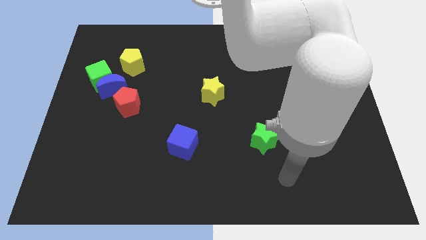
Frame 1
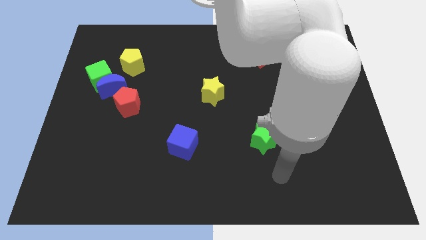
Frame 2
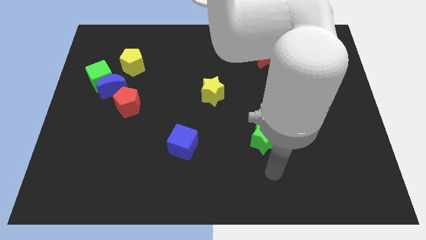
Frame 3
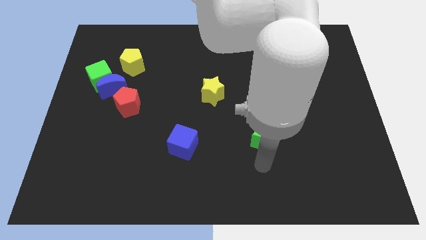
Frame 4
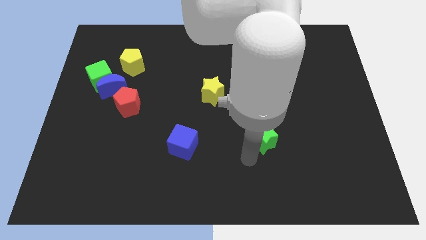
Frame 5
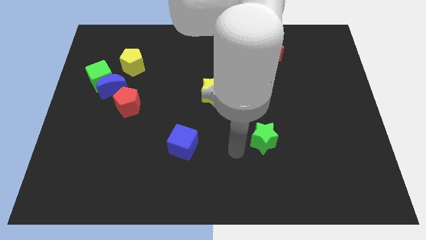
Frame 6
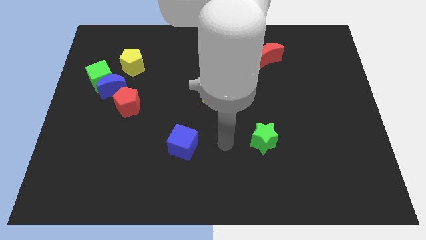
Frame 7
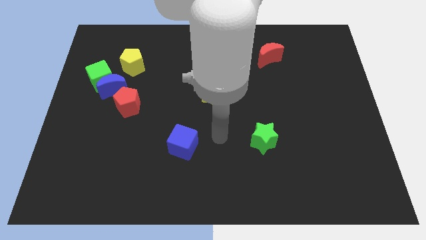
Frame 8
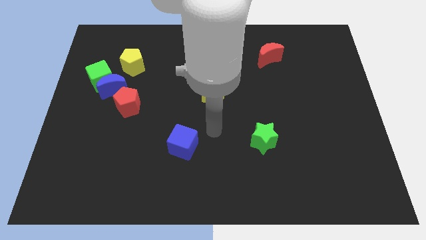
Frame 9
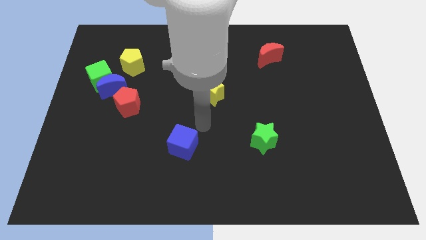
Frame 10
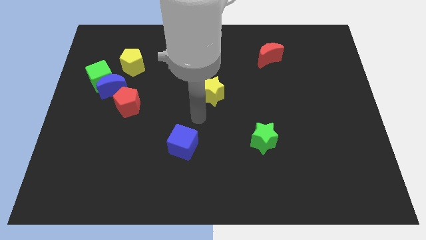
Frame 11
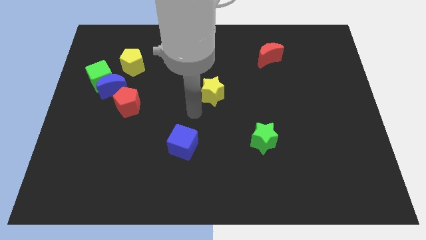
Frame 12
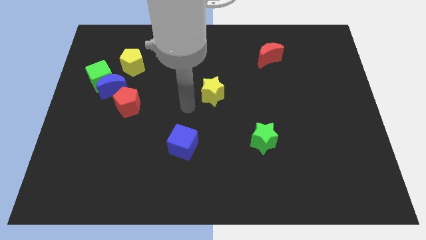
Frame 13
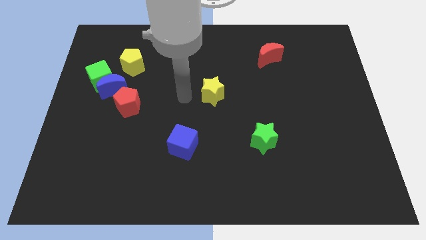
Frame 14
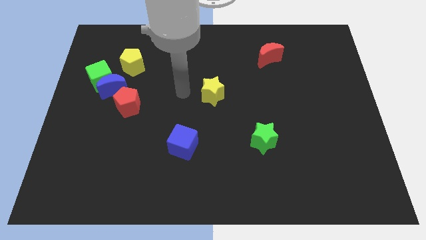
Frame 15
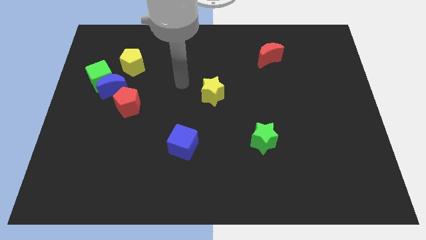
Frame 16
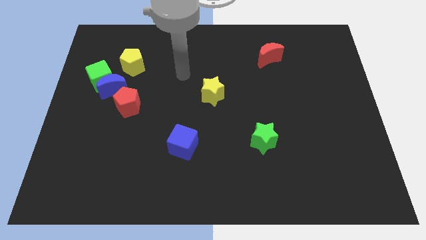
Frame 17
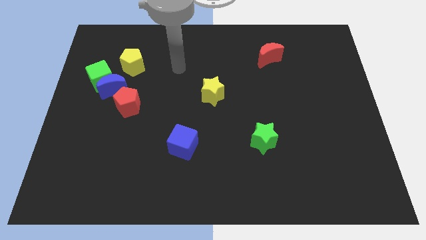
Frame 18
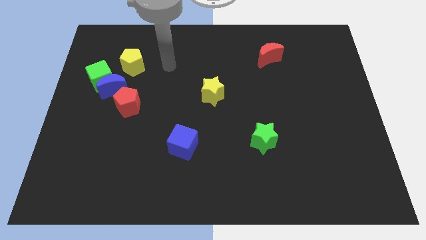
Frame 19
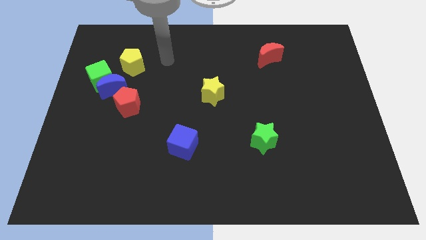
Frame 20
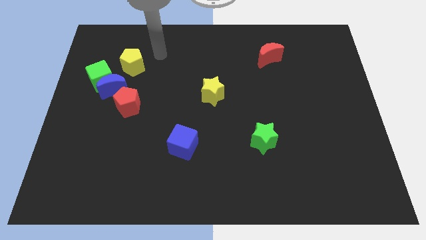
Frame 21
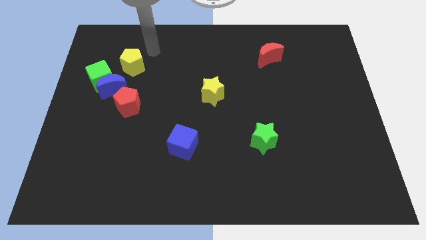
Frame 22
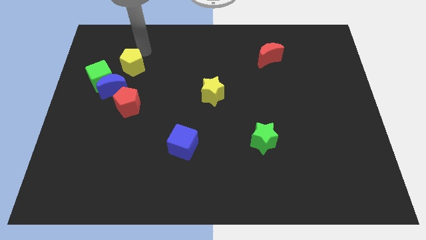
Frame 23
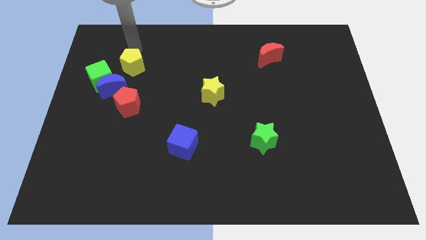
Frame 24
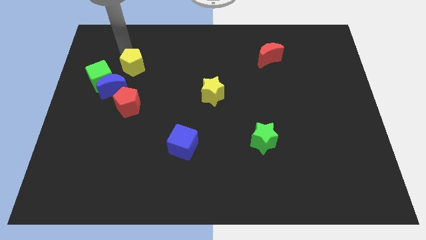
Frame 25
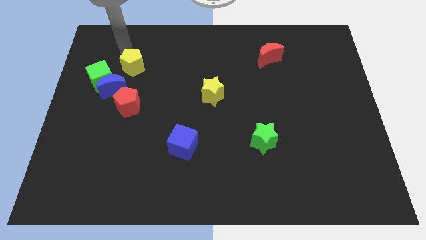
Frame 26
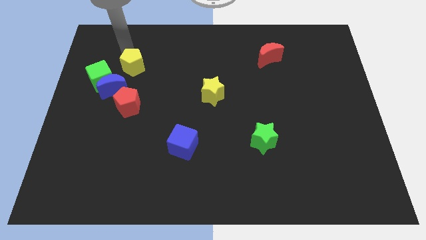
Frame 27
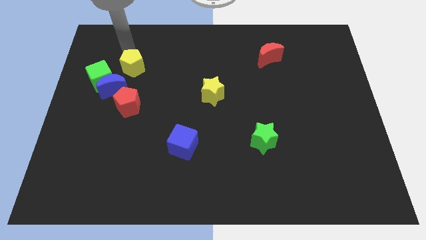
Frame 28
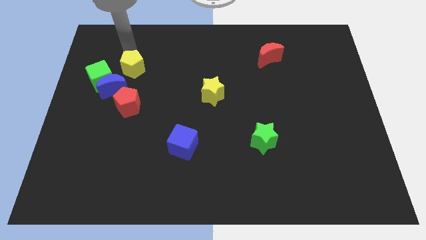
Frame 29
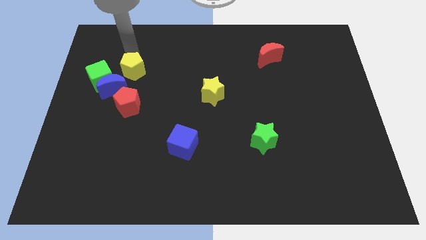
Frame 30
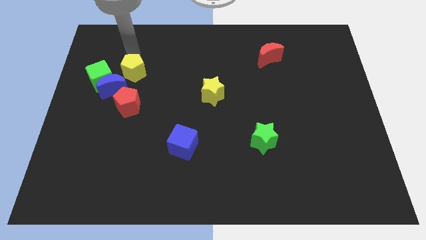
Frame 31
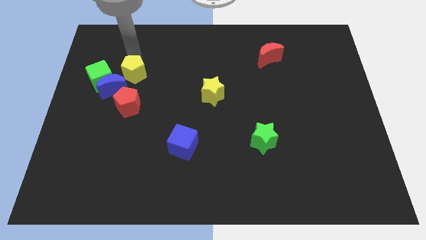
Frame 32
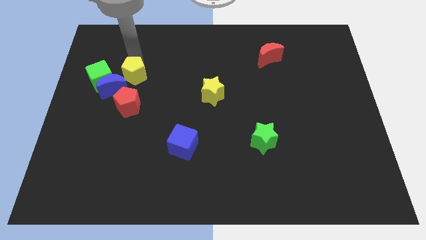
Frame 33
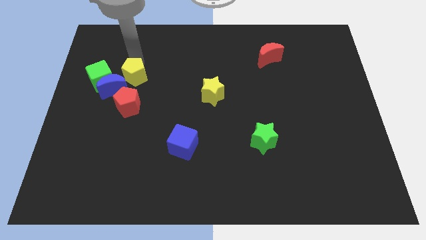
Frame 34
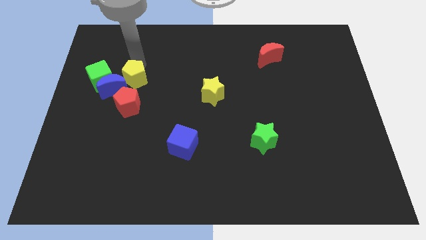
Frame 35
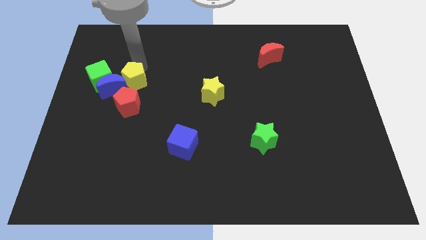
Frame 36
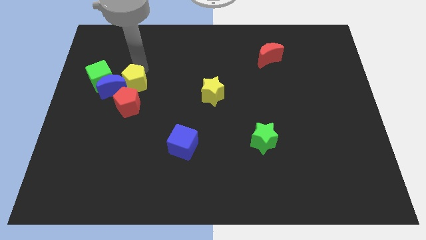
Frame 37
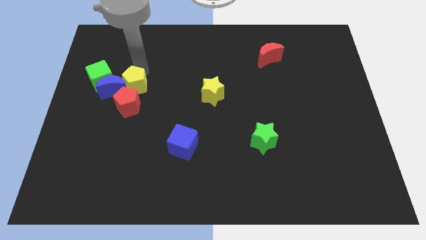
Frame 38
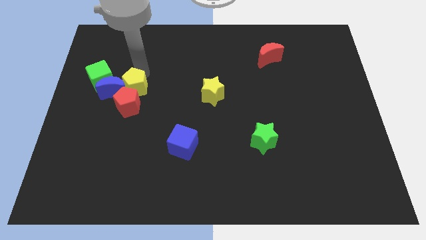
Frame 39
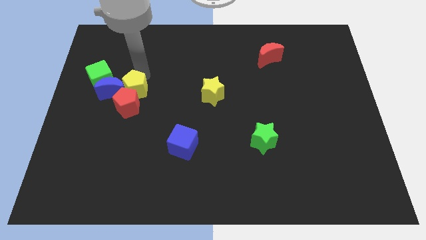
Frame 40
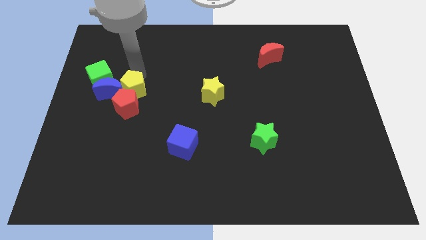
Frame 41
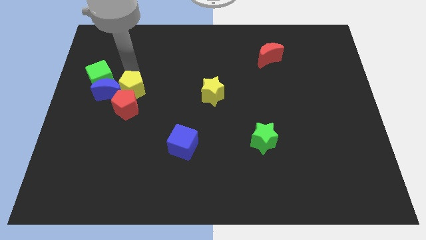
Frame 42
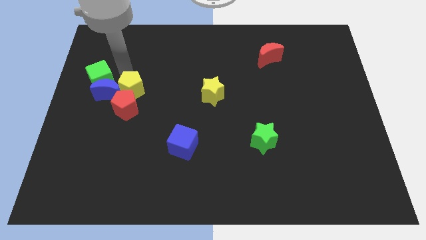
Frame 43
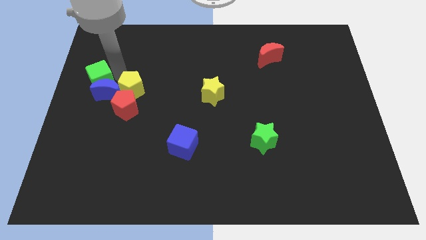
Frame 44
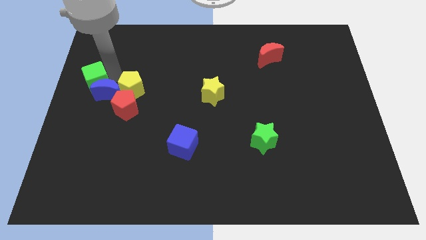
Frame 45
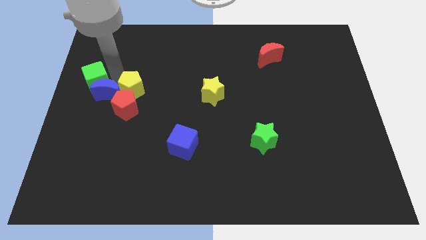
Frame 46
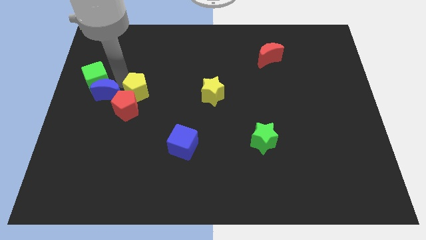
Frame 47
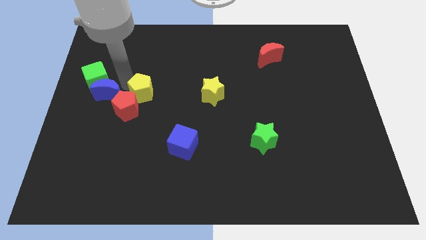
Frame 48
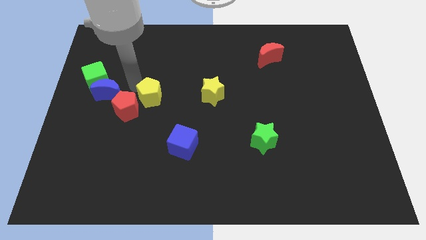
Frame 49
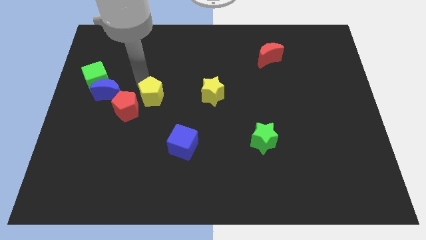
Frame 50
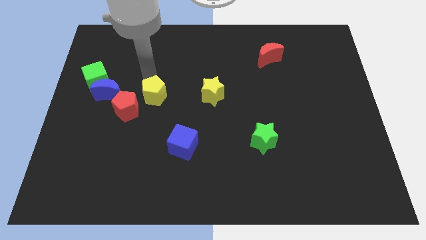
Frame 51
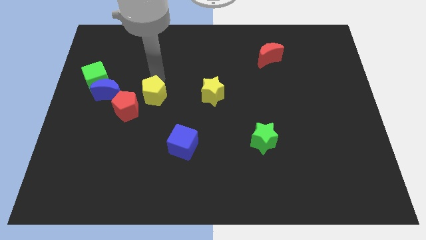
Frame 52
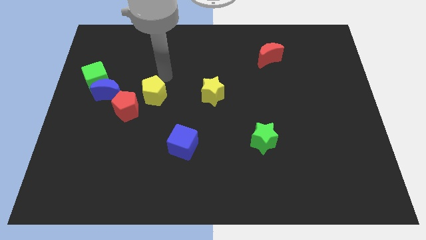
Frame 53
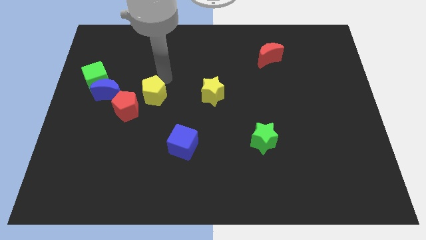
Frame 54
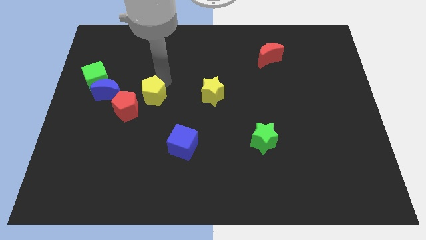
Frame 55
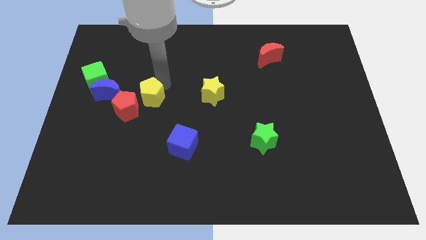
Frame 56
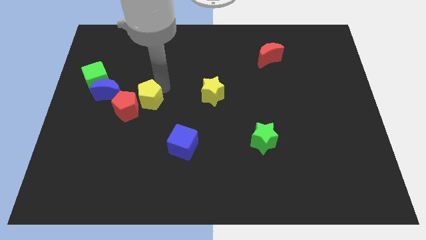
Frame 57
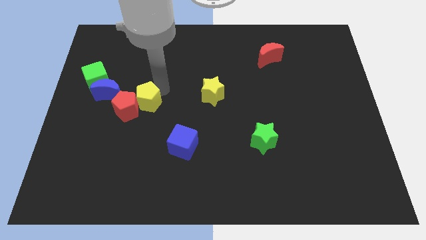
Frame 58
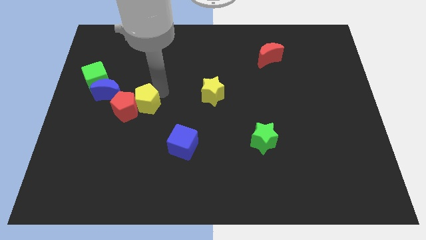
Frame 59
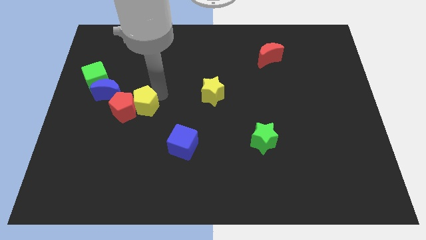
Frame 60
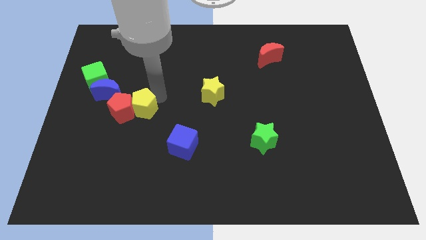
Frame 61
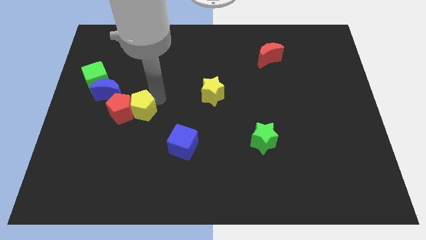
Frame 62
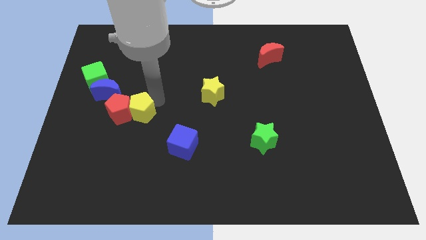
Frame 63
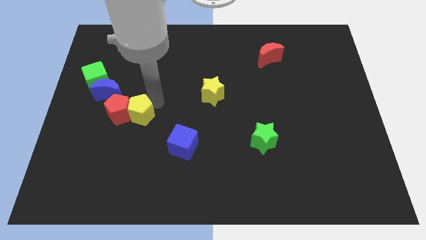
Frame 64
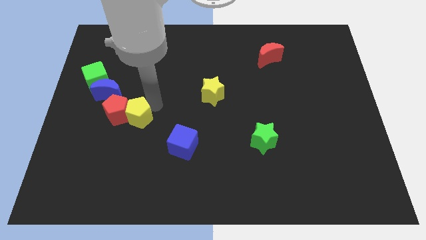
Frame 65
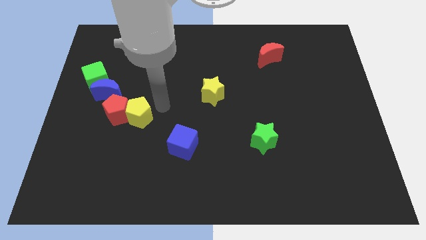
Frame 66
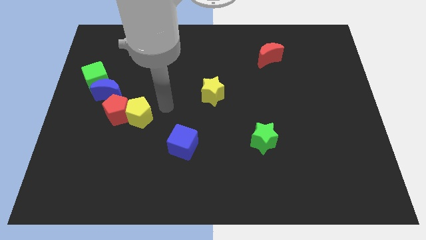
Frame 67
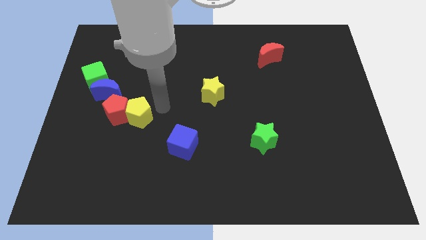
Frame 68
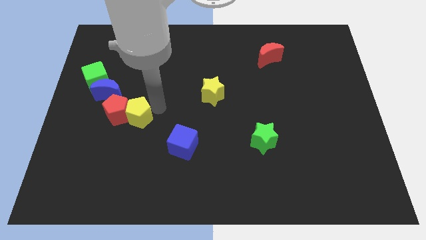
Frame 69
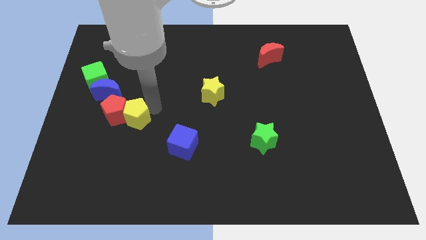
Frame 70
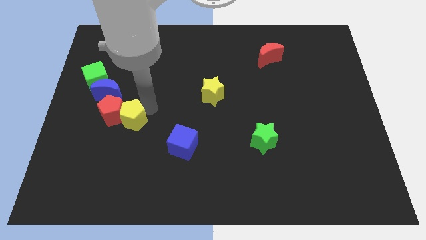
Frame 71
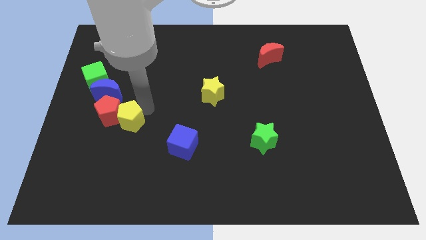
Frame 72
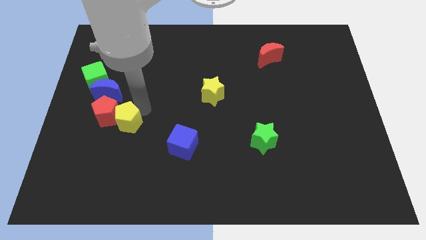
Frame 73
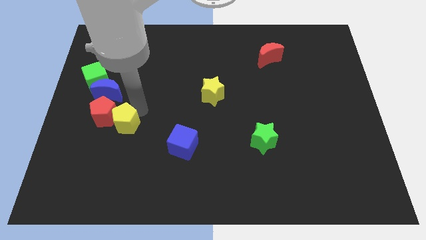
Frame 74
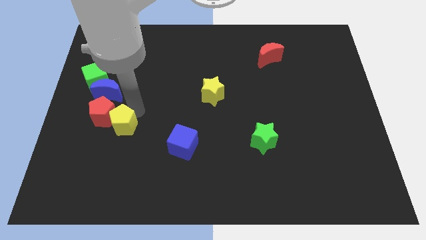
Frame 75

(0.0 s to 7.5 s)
push the yellow pentagon to the bottom side of the blue moon
